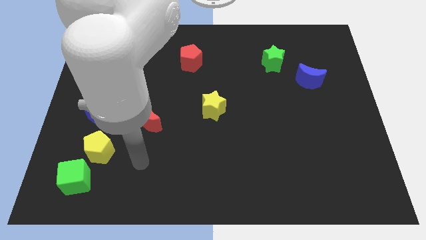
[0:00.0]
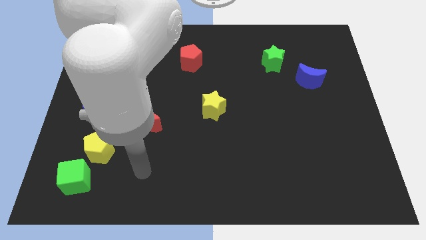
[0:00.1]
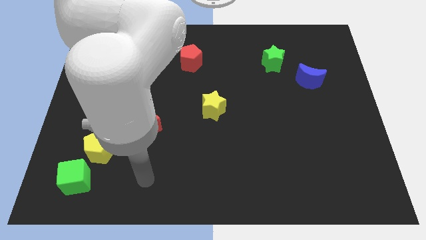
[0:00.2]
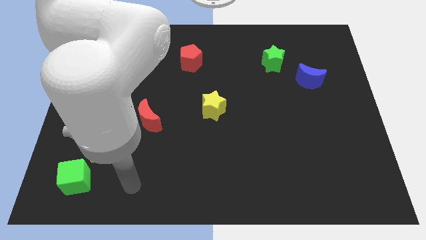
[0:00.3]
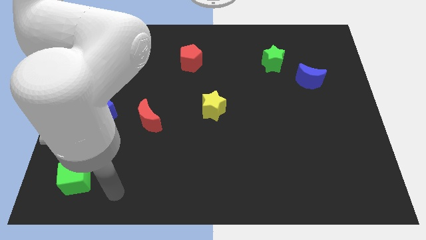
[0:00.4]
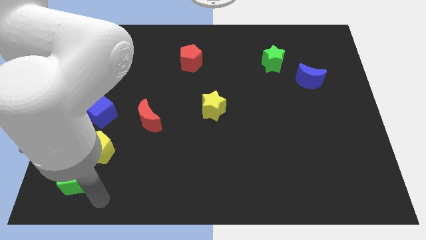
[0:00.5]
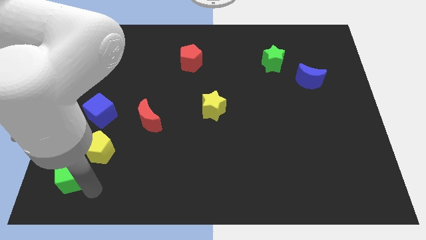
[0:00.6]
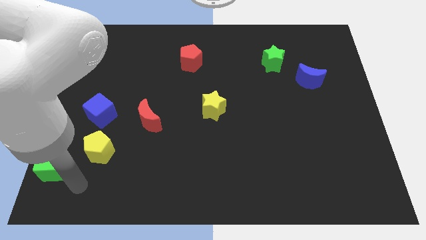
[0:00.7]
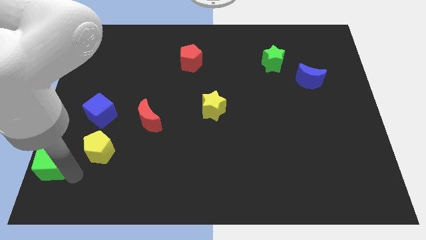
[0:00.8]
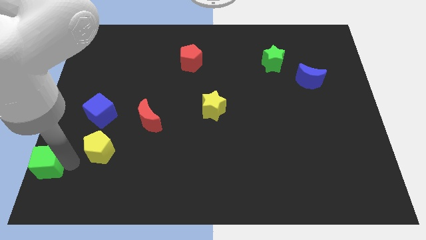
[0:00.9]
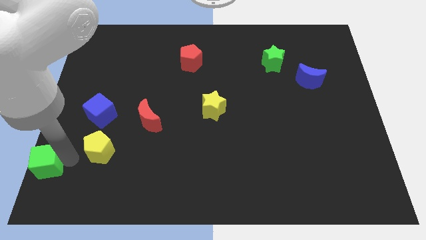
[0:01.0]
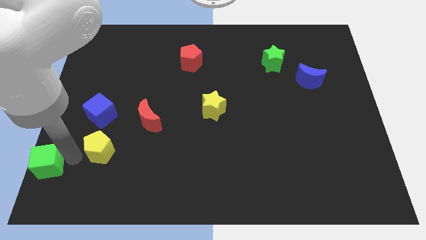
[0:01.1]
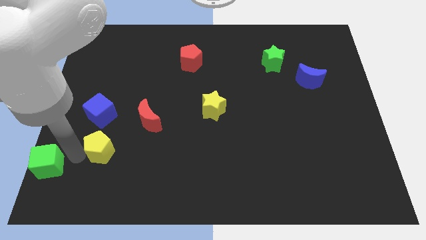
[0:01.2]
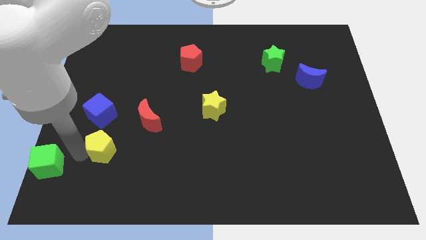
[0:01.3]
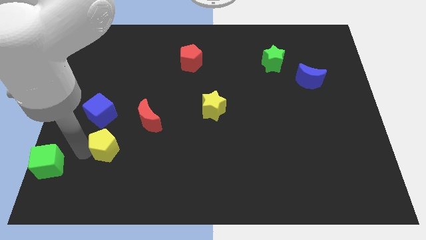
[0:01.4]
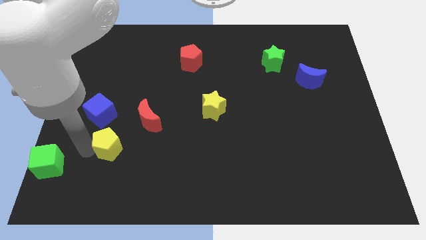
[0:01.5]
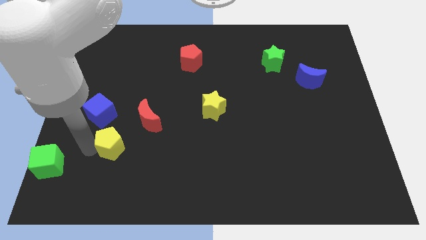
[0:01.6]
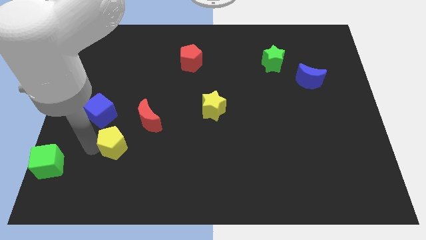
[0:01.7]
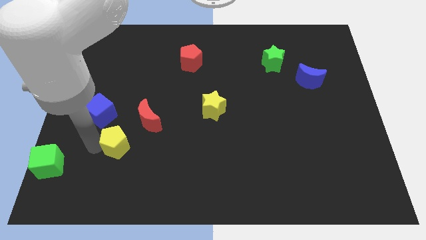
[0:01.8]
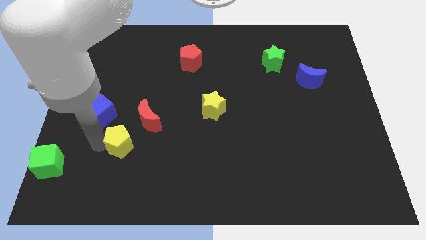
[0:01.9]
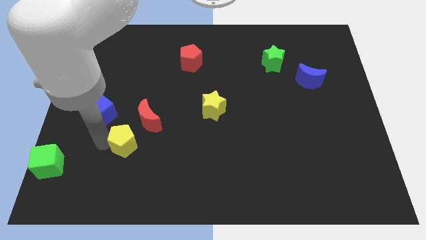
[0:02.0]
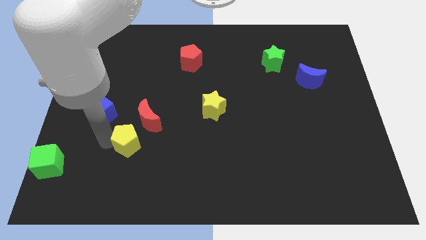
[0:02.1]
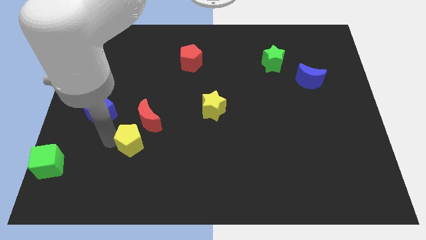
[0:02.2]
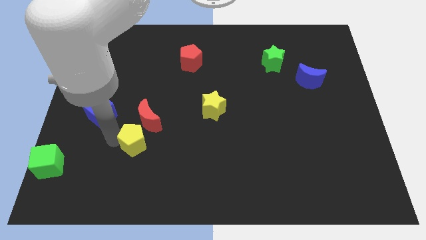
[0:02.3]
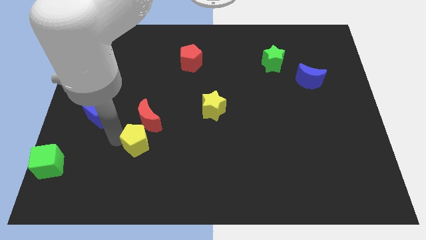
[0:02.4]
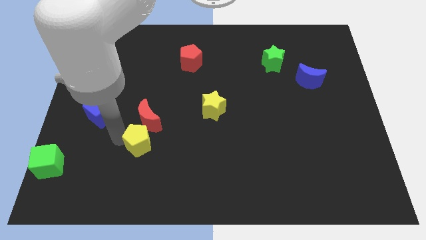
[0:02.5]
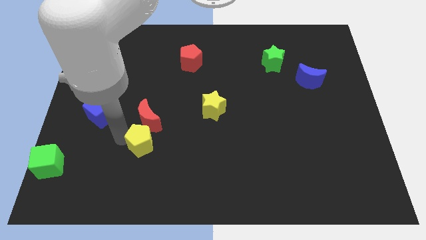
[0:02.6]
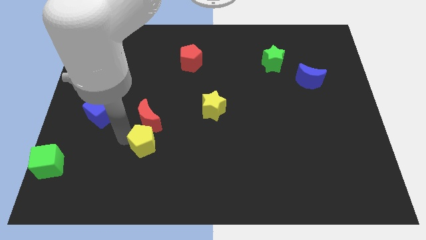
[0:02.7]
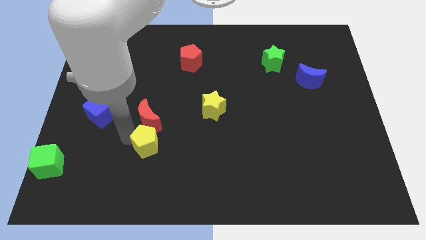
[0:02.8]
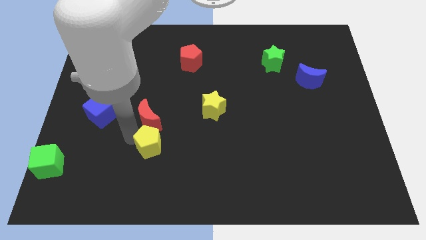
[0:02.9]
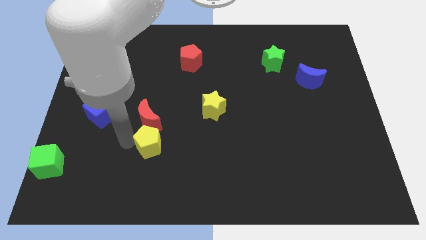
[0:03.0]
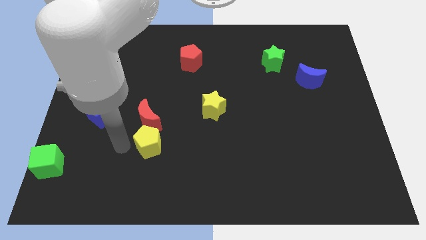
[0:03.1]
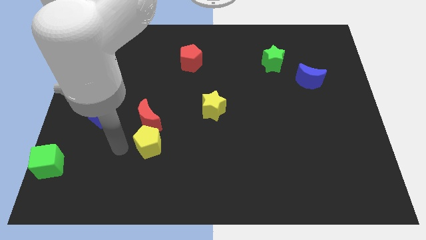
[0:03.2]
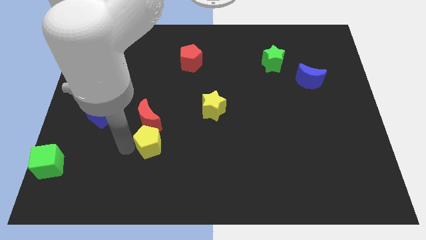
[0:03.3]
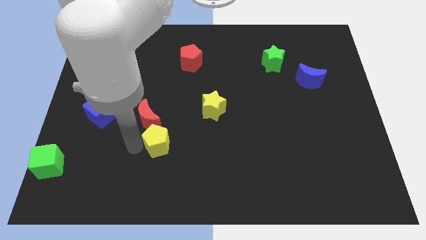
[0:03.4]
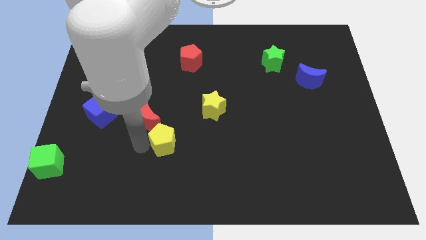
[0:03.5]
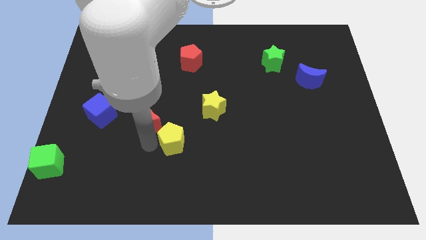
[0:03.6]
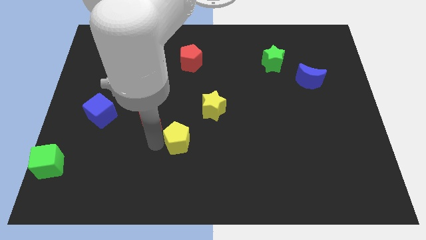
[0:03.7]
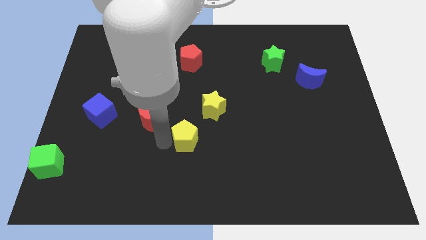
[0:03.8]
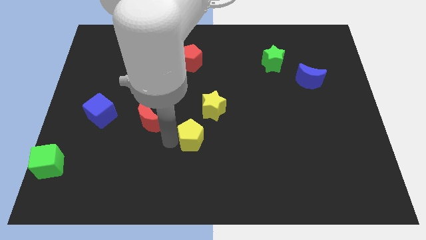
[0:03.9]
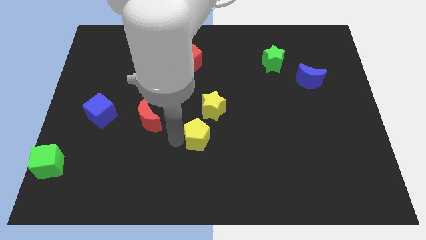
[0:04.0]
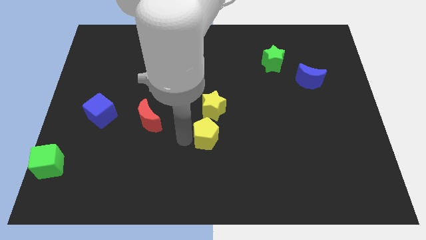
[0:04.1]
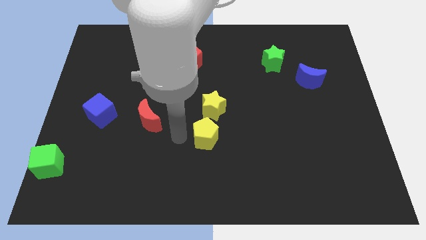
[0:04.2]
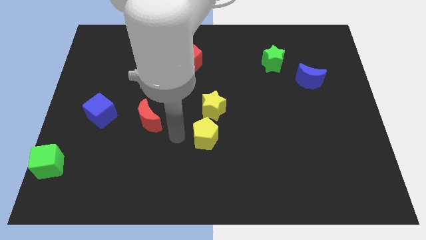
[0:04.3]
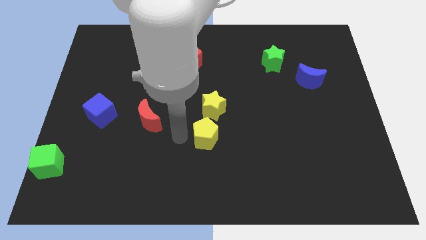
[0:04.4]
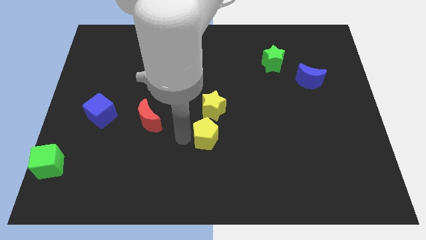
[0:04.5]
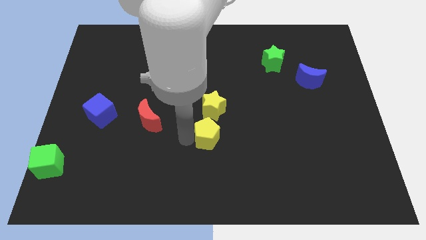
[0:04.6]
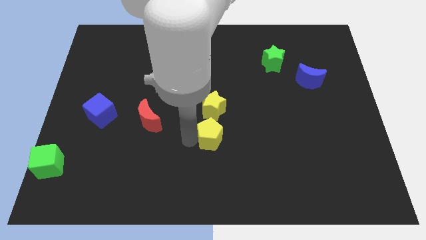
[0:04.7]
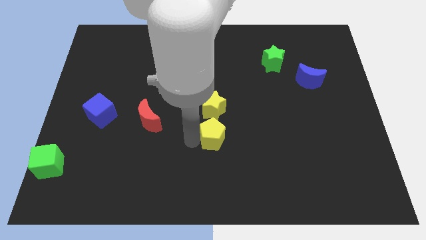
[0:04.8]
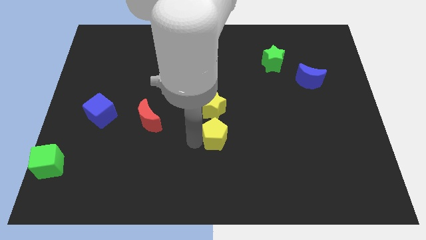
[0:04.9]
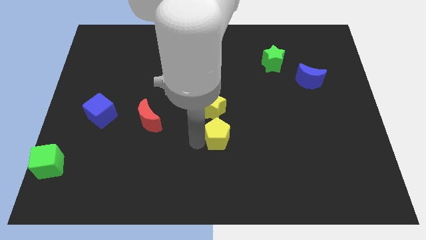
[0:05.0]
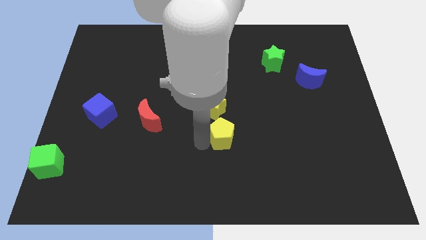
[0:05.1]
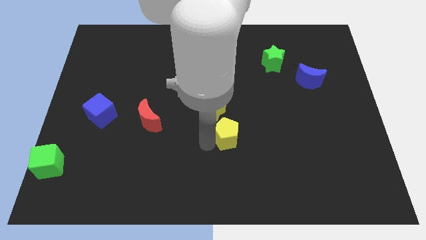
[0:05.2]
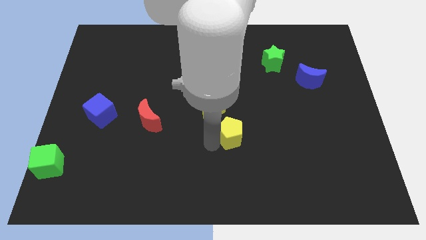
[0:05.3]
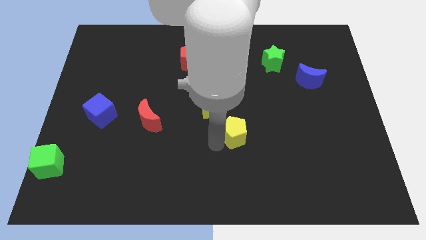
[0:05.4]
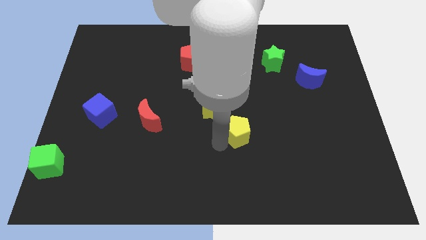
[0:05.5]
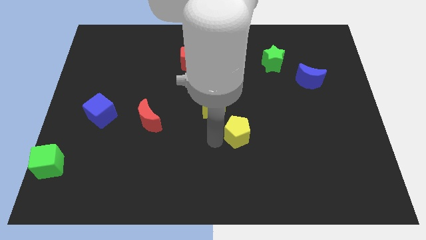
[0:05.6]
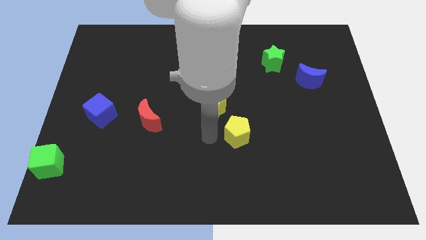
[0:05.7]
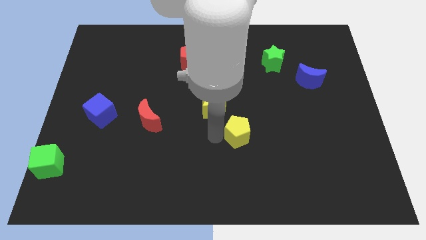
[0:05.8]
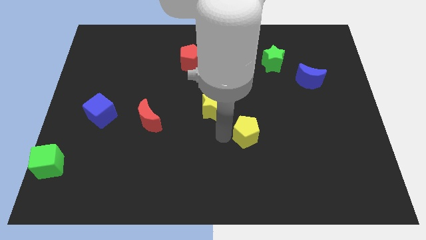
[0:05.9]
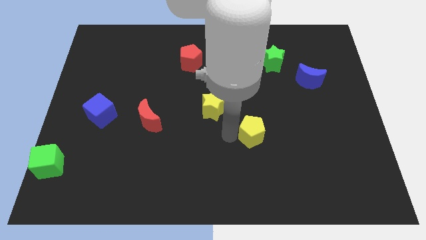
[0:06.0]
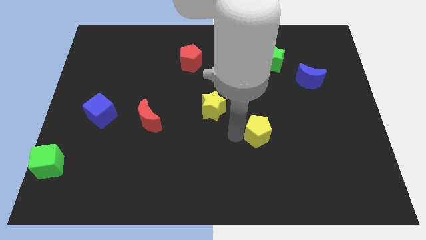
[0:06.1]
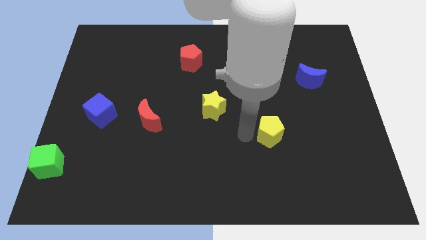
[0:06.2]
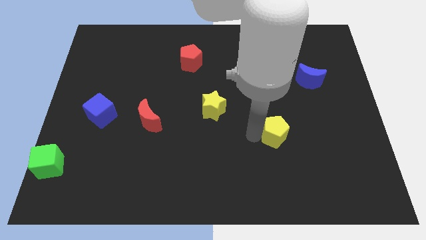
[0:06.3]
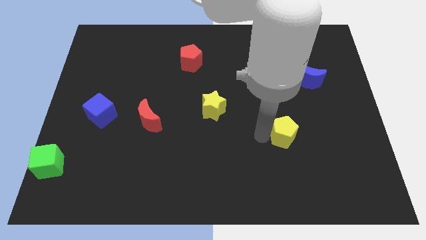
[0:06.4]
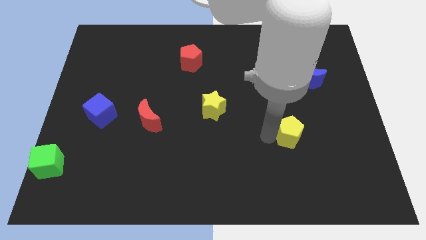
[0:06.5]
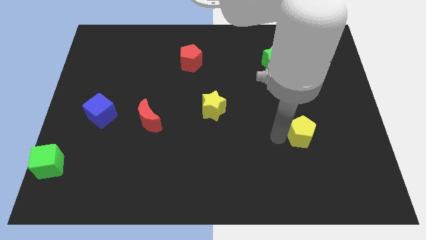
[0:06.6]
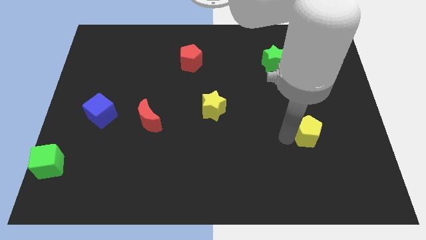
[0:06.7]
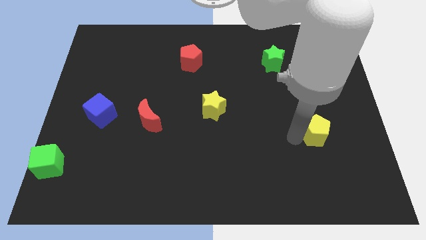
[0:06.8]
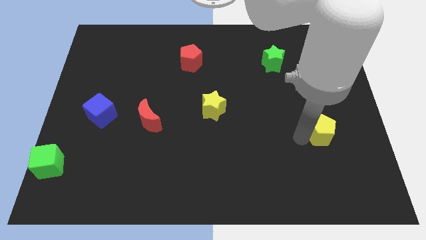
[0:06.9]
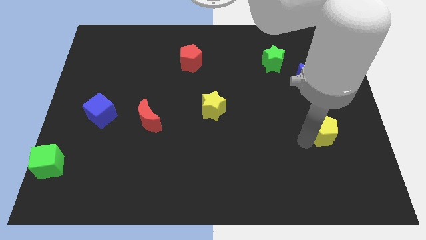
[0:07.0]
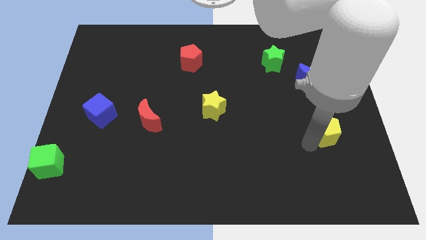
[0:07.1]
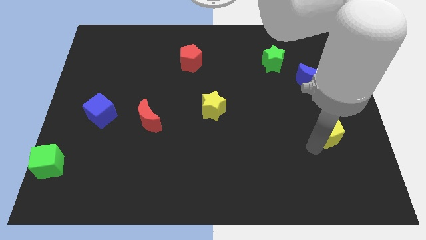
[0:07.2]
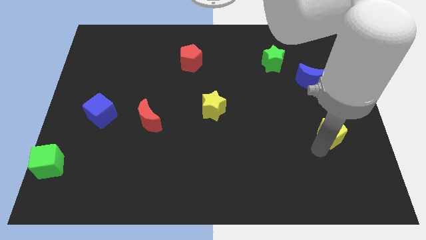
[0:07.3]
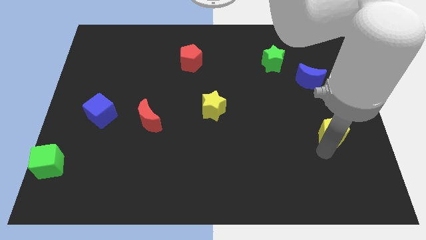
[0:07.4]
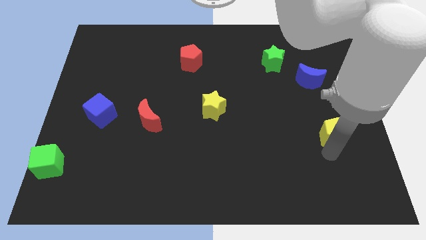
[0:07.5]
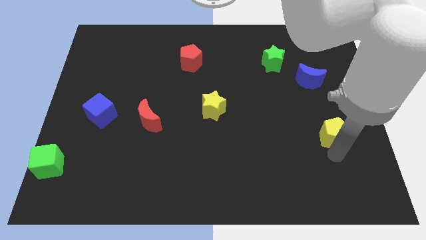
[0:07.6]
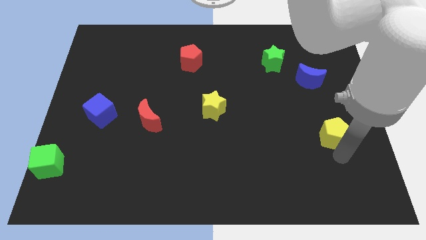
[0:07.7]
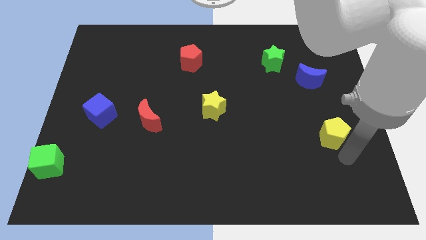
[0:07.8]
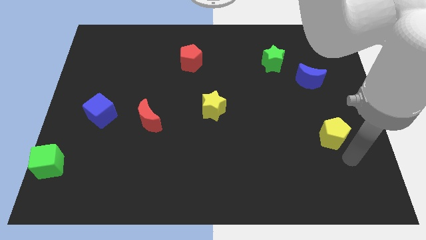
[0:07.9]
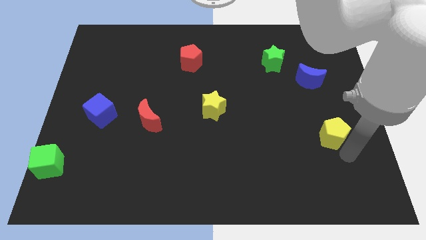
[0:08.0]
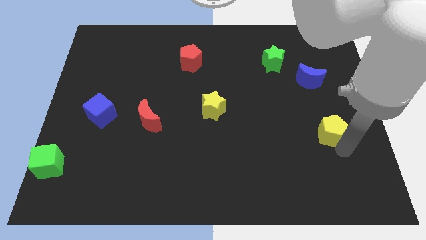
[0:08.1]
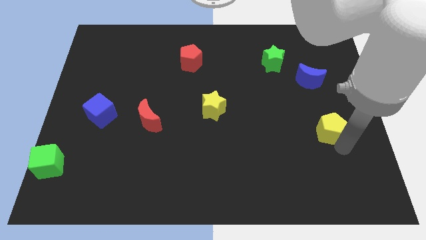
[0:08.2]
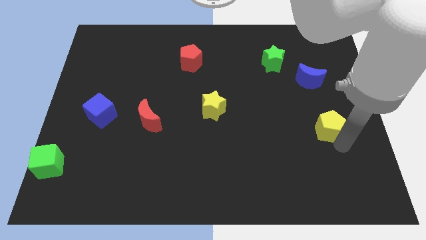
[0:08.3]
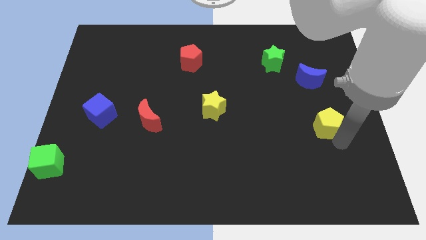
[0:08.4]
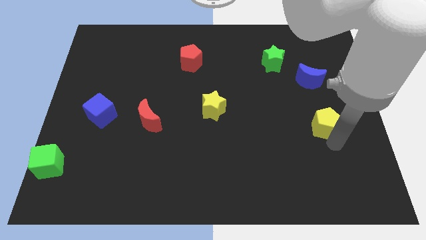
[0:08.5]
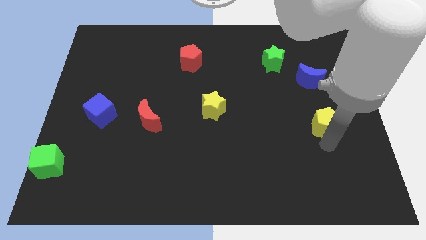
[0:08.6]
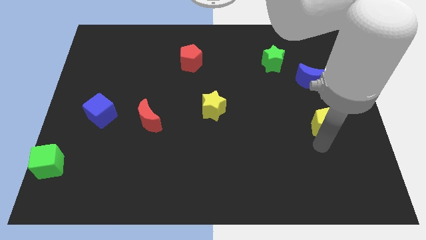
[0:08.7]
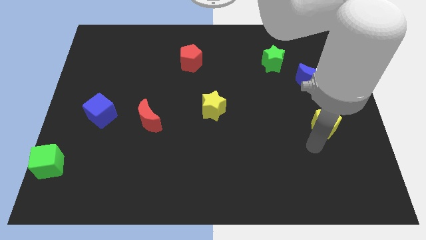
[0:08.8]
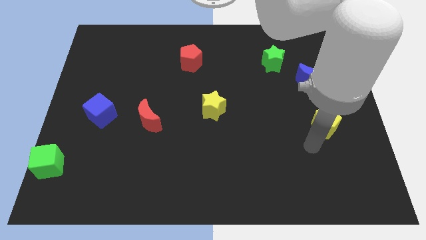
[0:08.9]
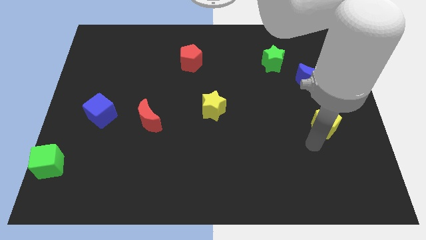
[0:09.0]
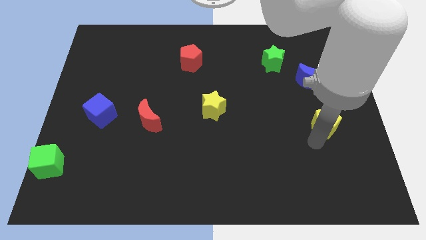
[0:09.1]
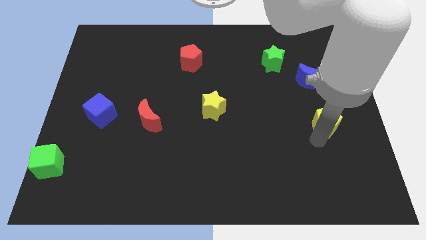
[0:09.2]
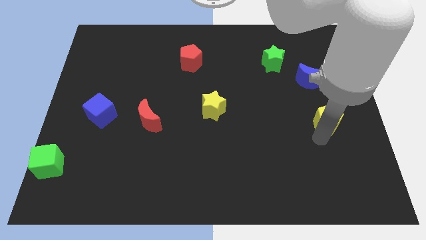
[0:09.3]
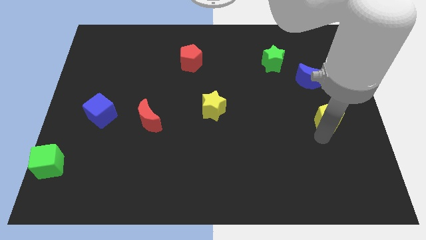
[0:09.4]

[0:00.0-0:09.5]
put the yellow pentagon to the right side
